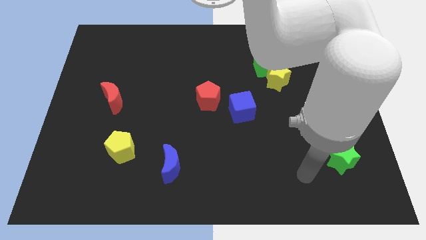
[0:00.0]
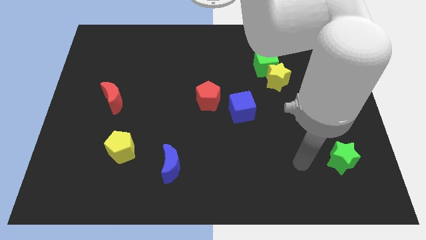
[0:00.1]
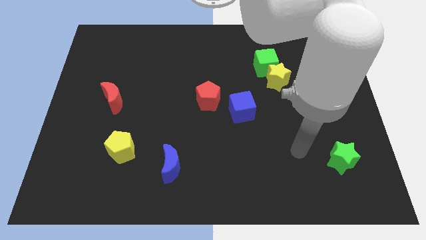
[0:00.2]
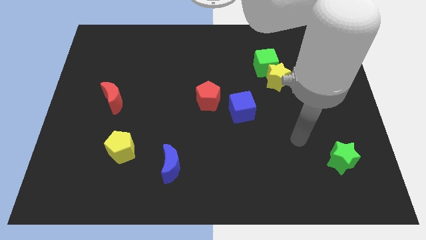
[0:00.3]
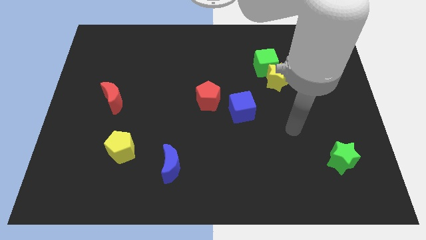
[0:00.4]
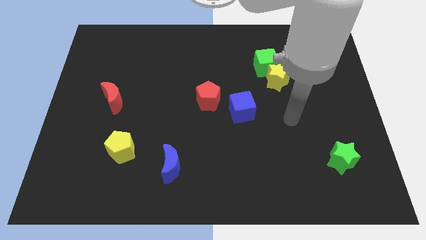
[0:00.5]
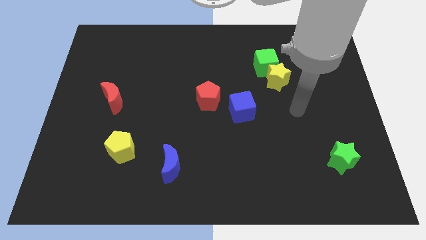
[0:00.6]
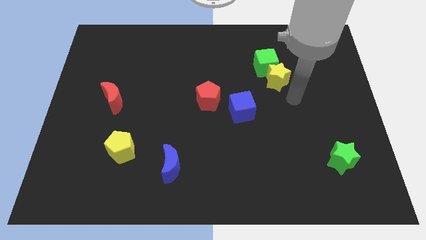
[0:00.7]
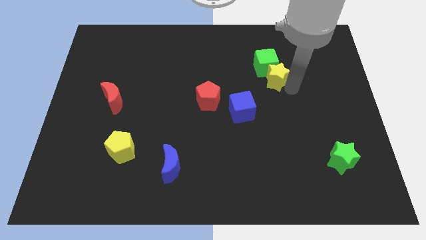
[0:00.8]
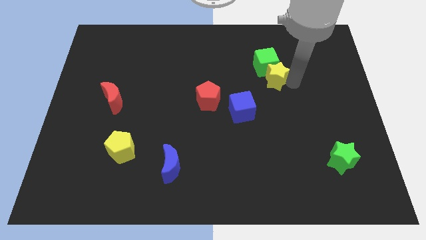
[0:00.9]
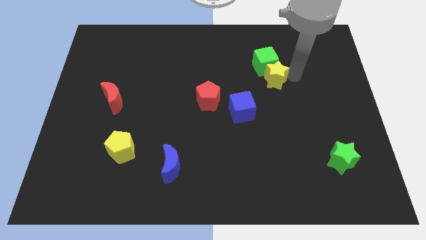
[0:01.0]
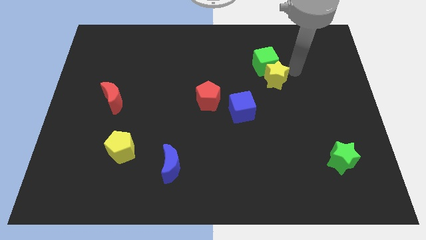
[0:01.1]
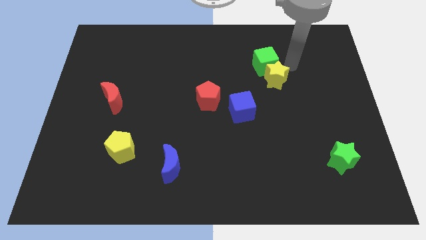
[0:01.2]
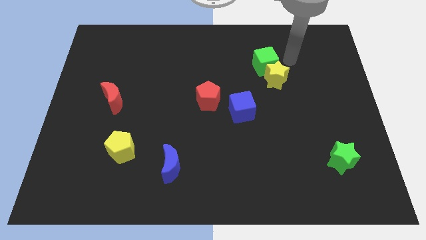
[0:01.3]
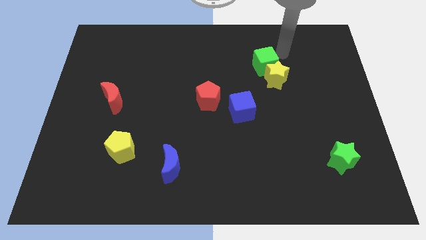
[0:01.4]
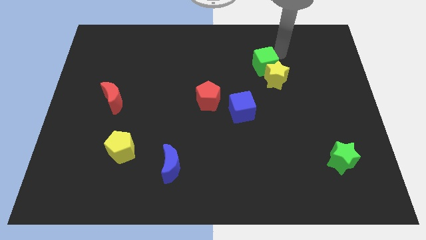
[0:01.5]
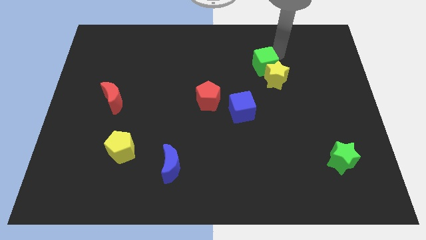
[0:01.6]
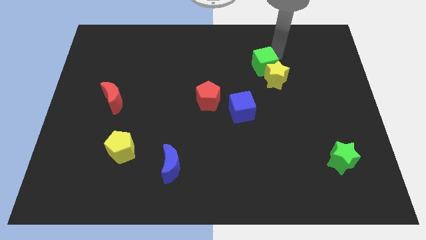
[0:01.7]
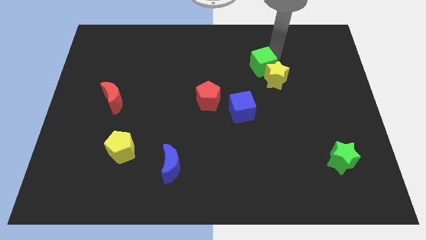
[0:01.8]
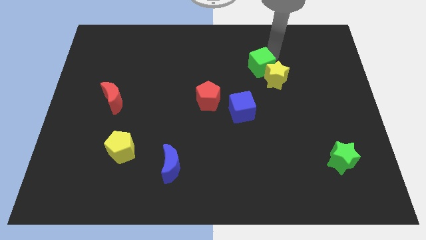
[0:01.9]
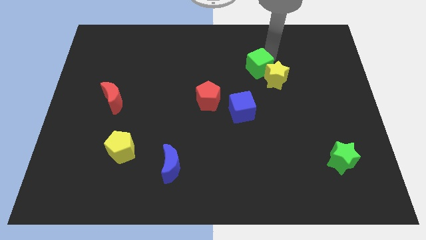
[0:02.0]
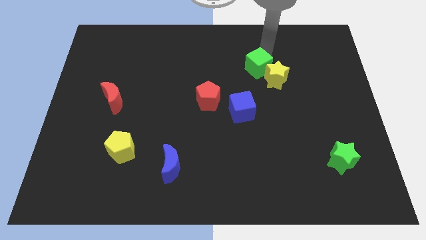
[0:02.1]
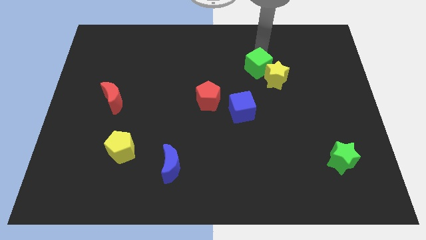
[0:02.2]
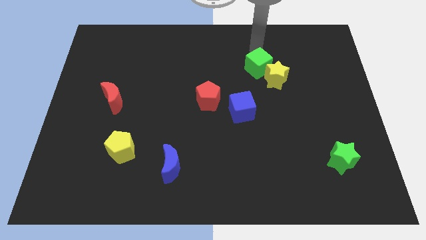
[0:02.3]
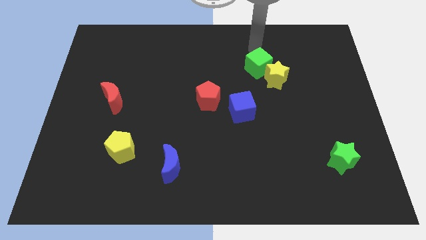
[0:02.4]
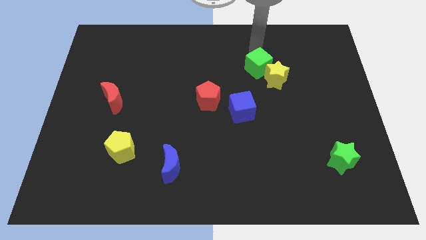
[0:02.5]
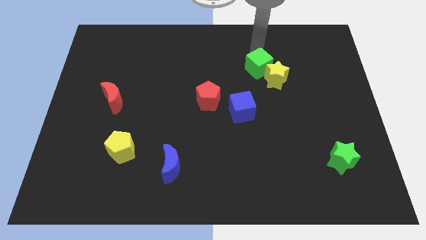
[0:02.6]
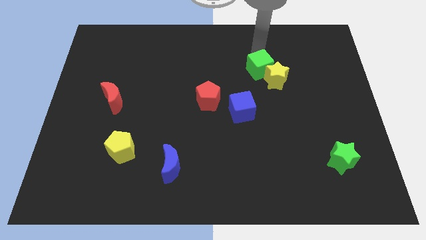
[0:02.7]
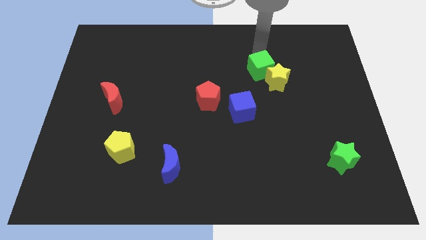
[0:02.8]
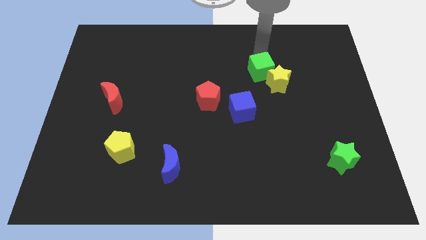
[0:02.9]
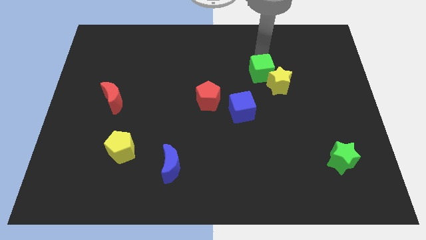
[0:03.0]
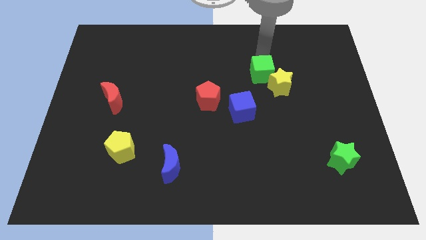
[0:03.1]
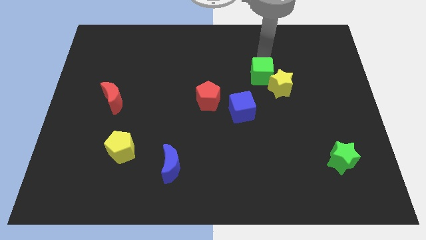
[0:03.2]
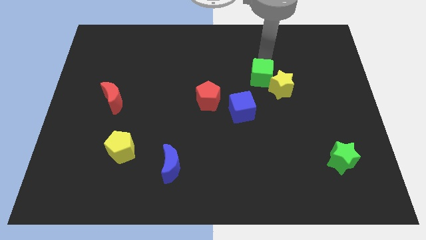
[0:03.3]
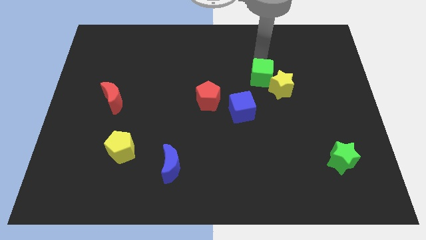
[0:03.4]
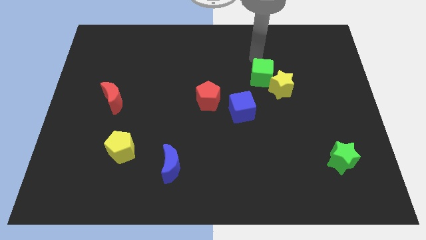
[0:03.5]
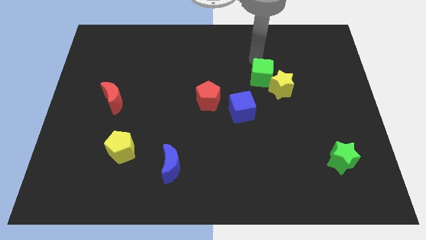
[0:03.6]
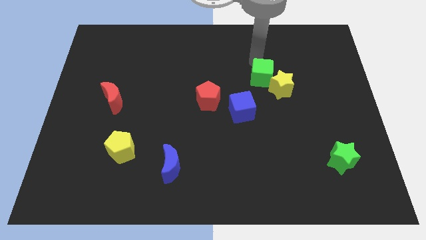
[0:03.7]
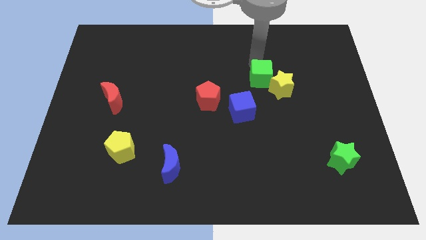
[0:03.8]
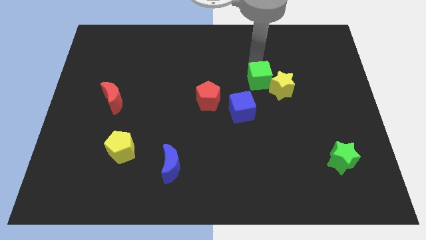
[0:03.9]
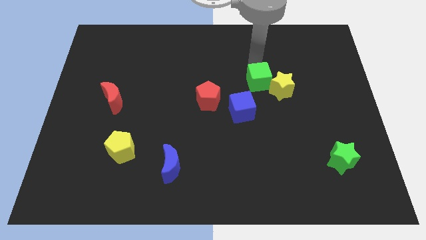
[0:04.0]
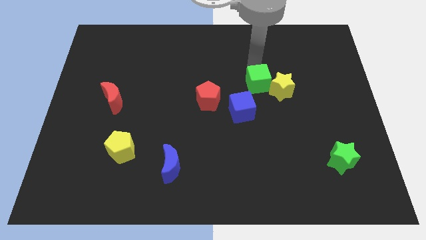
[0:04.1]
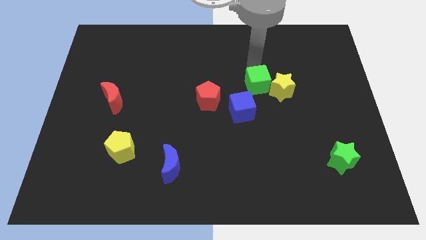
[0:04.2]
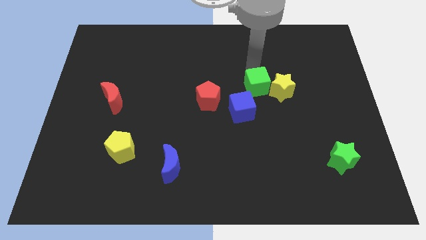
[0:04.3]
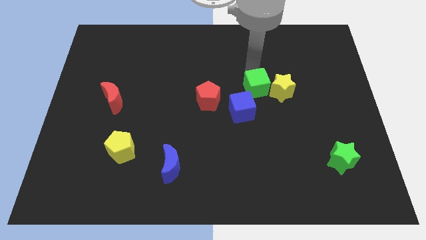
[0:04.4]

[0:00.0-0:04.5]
move the green cube slightly down

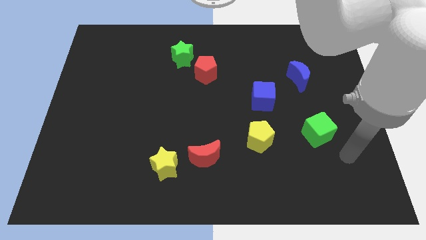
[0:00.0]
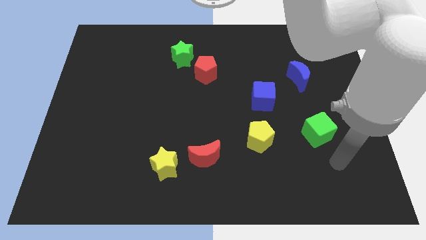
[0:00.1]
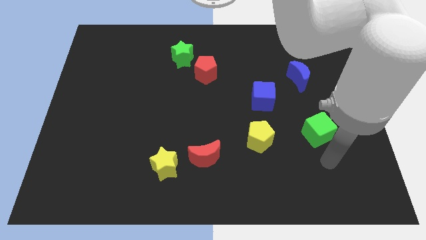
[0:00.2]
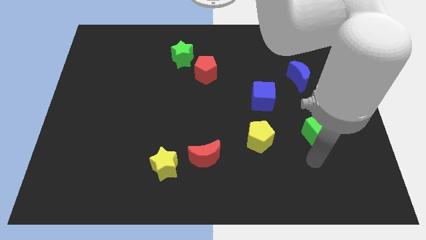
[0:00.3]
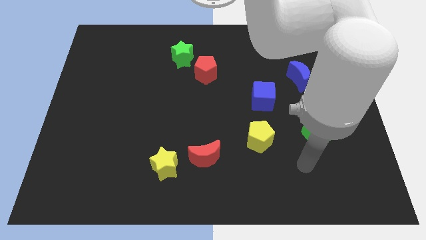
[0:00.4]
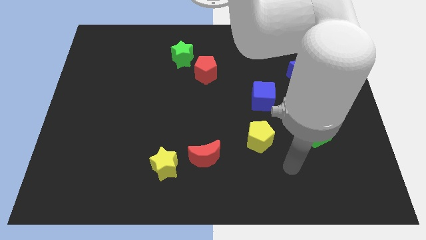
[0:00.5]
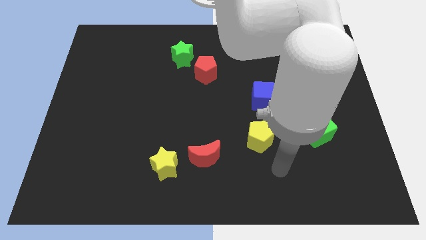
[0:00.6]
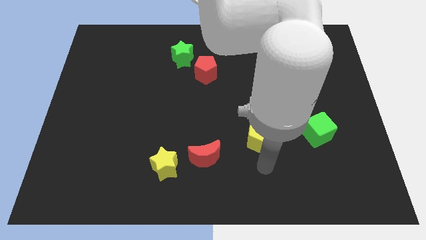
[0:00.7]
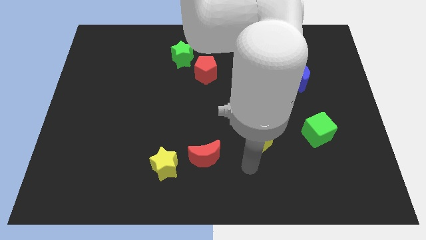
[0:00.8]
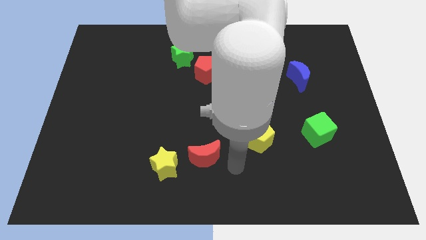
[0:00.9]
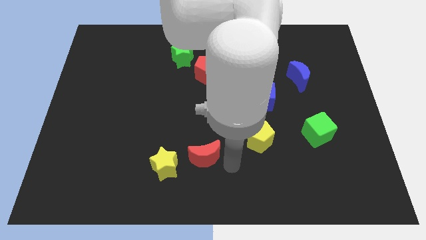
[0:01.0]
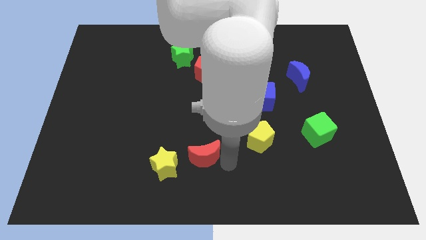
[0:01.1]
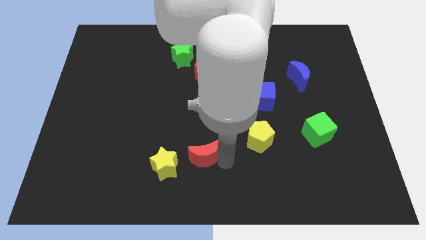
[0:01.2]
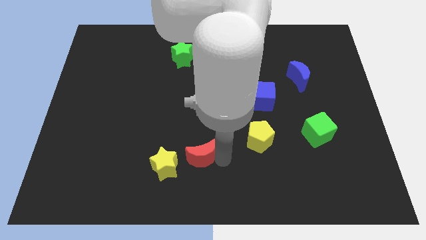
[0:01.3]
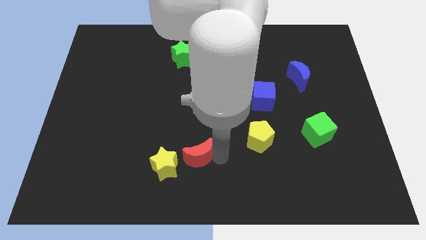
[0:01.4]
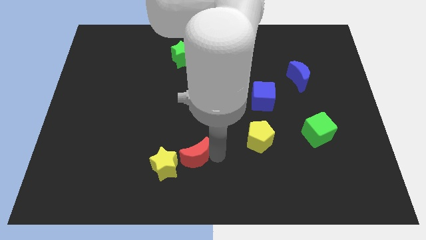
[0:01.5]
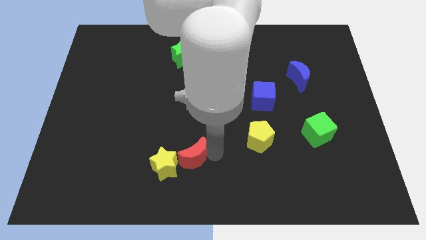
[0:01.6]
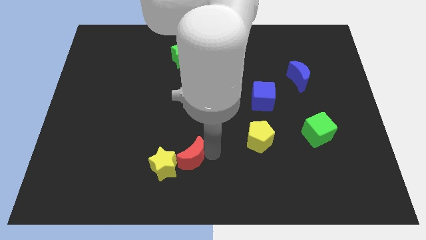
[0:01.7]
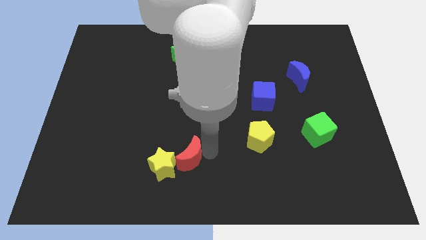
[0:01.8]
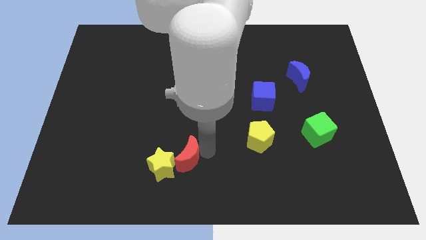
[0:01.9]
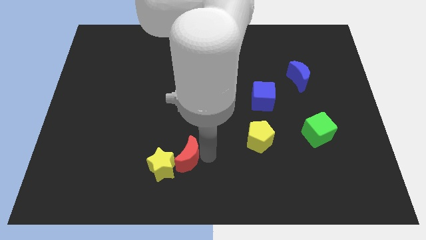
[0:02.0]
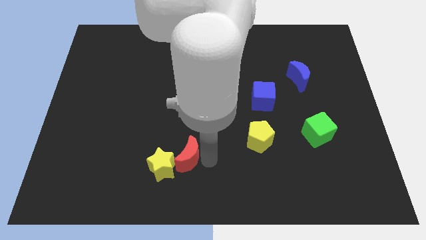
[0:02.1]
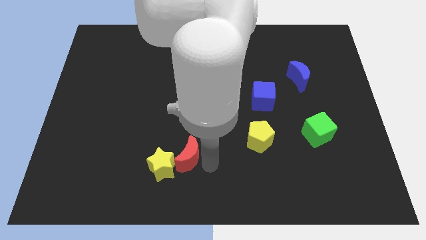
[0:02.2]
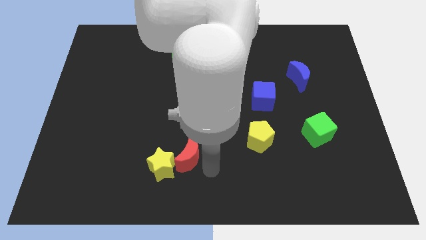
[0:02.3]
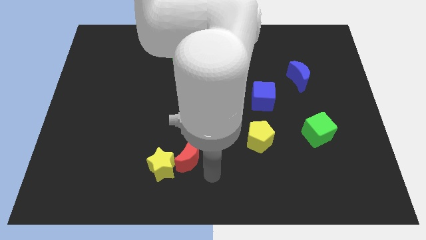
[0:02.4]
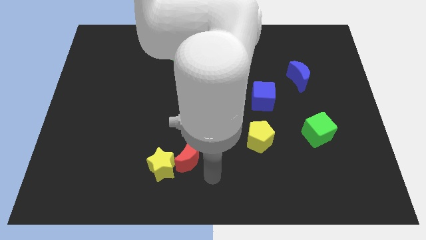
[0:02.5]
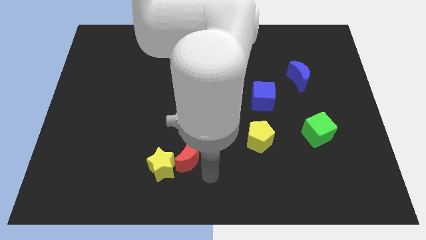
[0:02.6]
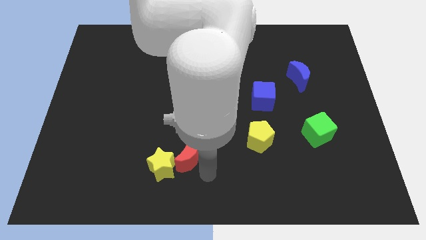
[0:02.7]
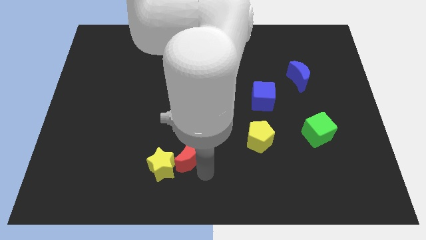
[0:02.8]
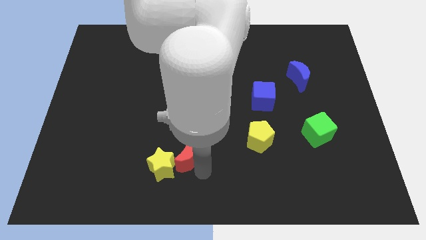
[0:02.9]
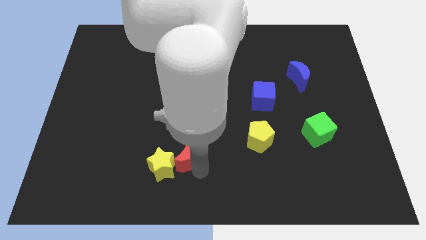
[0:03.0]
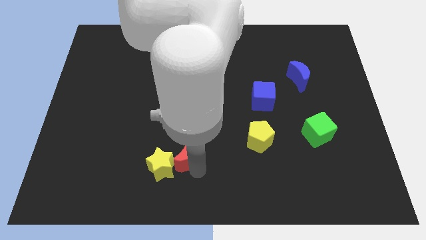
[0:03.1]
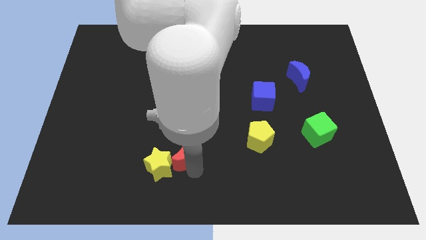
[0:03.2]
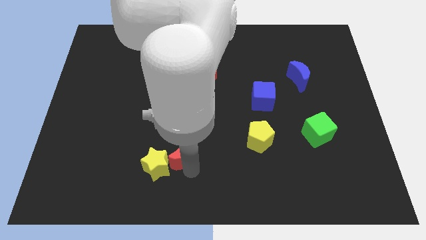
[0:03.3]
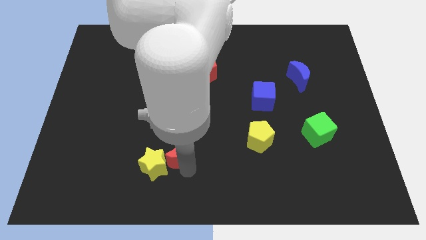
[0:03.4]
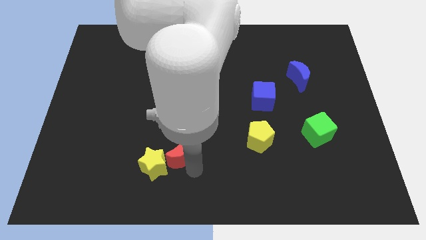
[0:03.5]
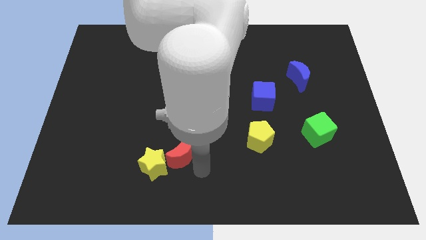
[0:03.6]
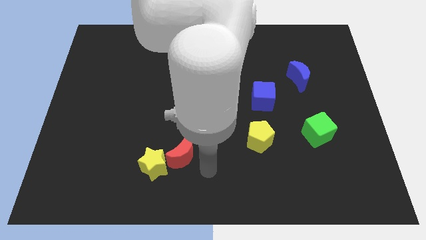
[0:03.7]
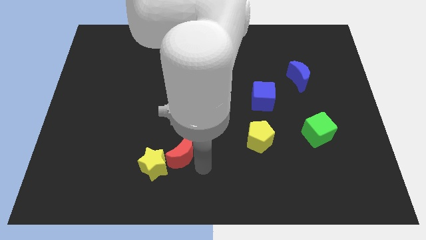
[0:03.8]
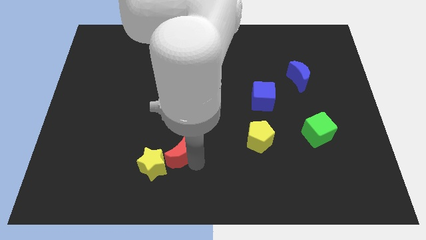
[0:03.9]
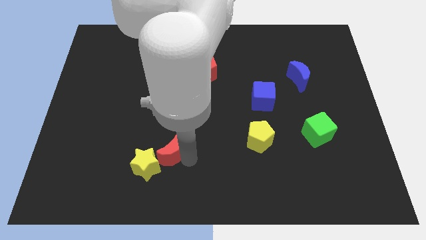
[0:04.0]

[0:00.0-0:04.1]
slide the red moon left slightly
